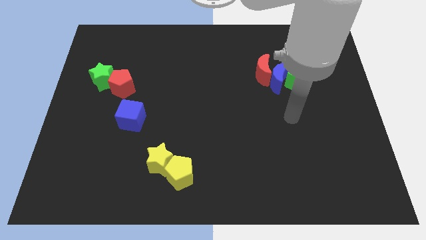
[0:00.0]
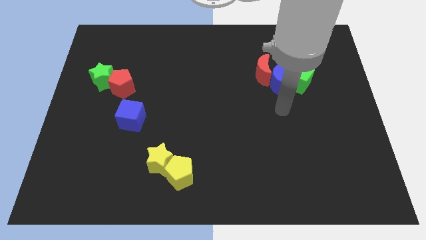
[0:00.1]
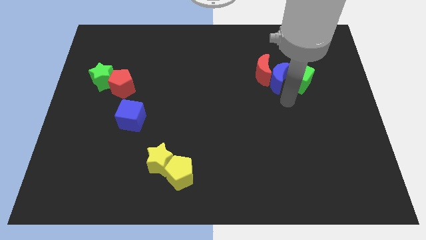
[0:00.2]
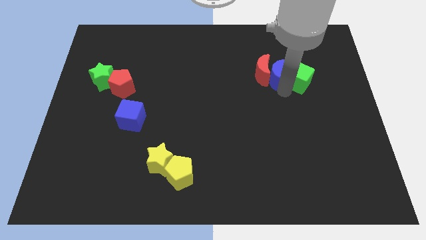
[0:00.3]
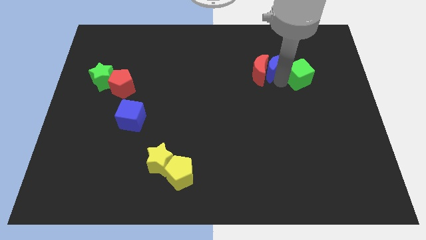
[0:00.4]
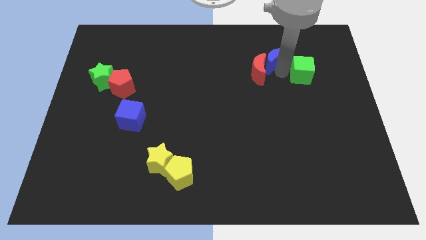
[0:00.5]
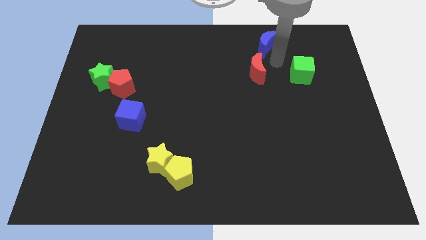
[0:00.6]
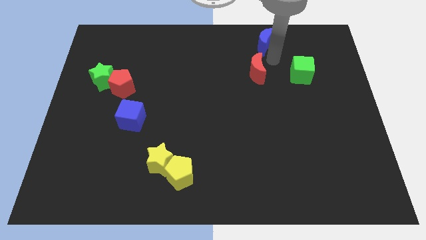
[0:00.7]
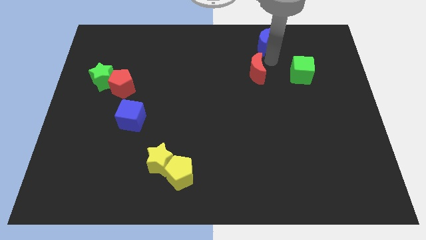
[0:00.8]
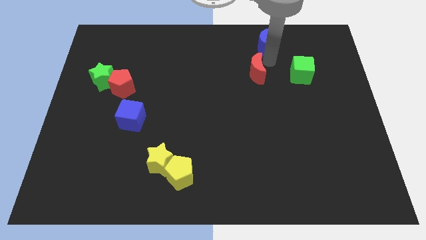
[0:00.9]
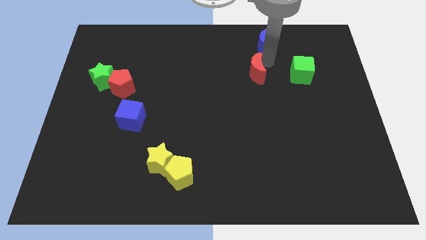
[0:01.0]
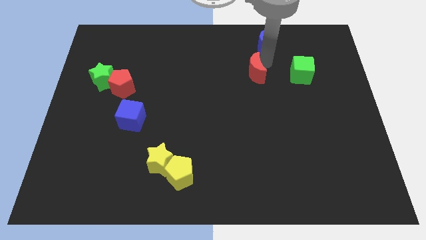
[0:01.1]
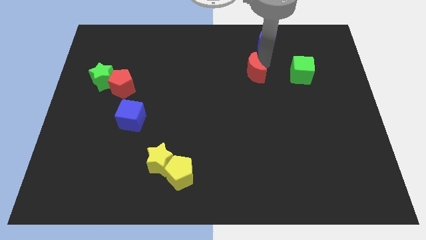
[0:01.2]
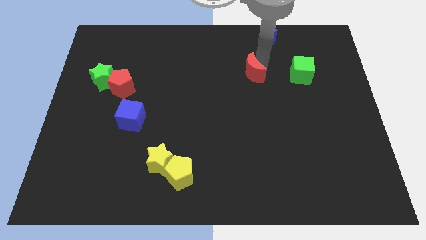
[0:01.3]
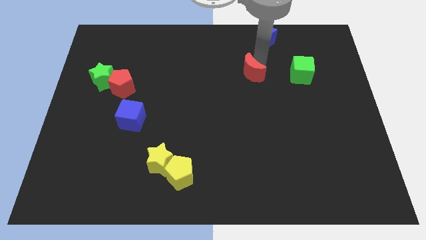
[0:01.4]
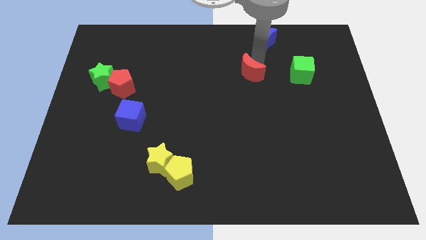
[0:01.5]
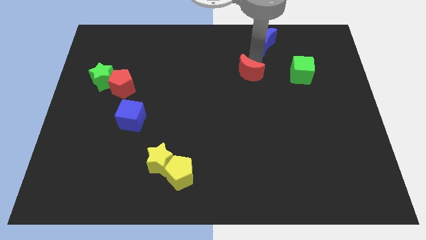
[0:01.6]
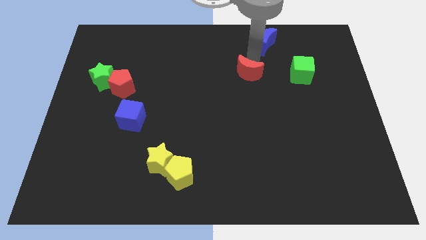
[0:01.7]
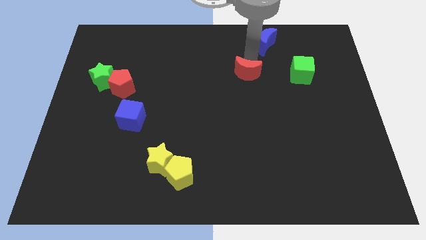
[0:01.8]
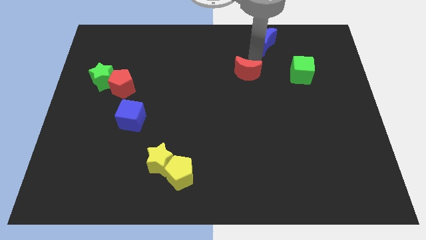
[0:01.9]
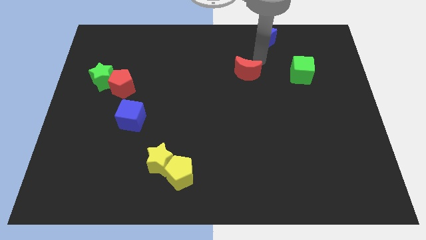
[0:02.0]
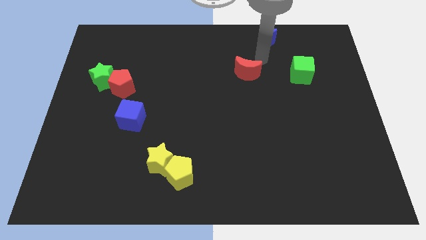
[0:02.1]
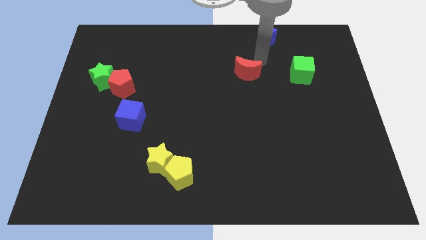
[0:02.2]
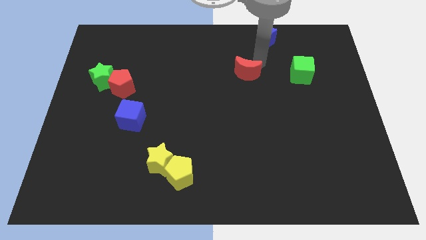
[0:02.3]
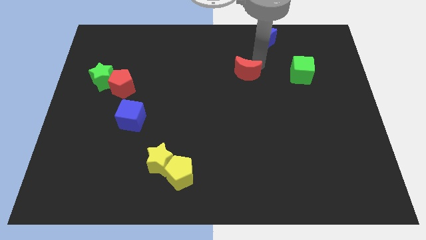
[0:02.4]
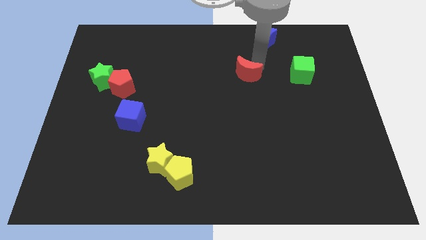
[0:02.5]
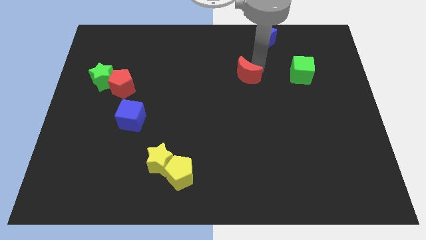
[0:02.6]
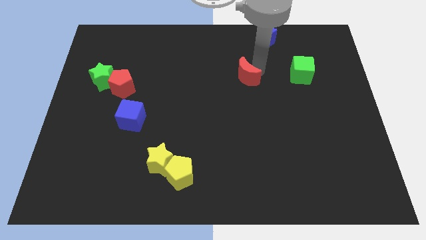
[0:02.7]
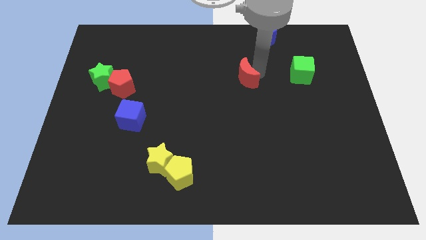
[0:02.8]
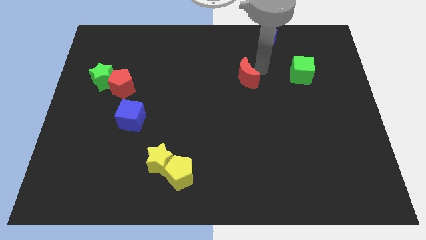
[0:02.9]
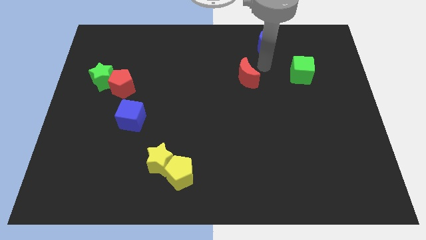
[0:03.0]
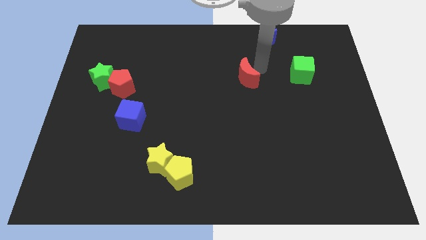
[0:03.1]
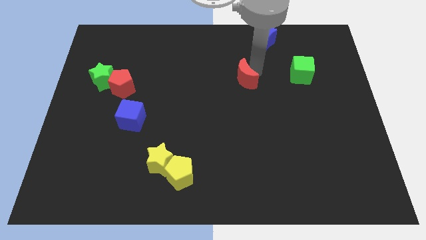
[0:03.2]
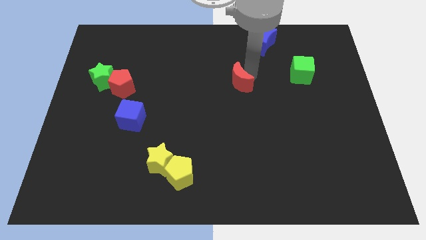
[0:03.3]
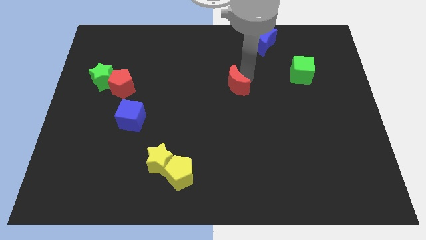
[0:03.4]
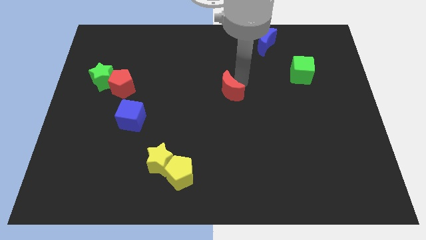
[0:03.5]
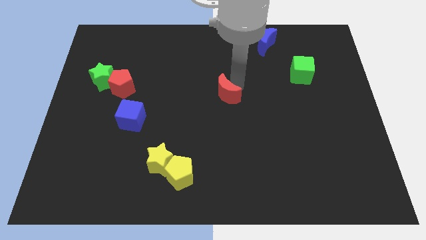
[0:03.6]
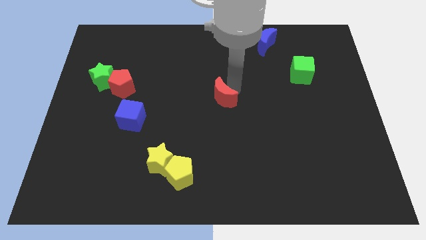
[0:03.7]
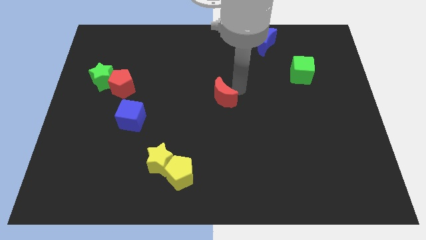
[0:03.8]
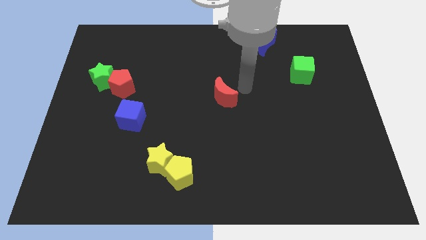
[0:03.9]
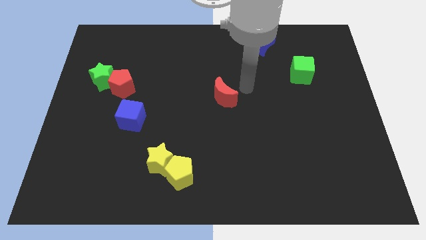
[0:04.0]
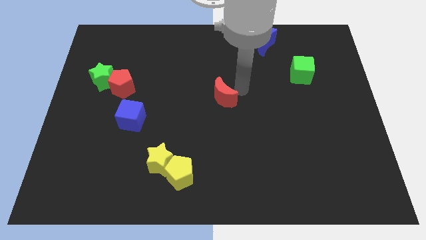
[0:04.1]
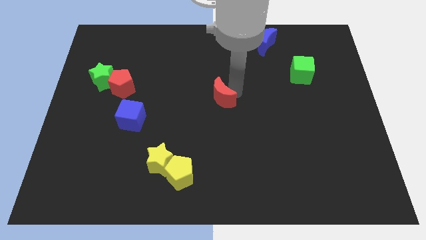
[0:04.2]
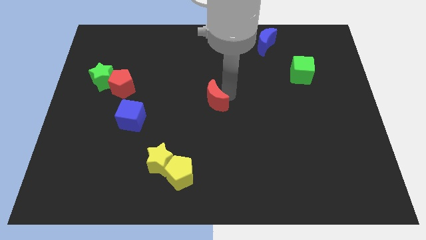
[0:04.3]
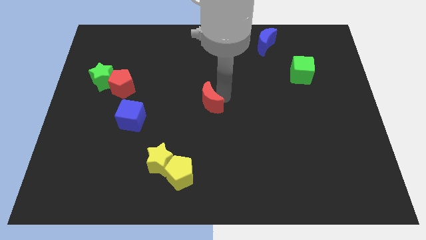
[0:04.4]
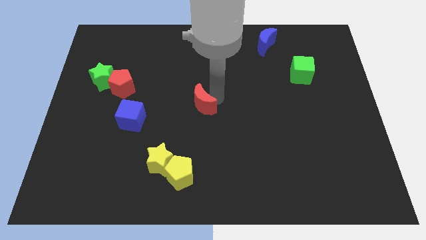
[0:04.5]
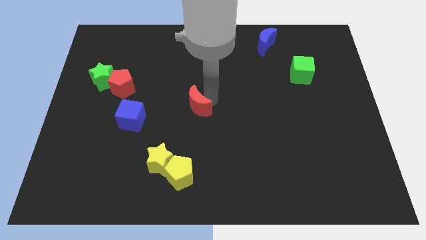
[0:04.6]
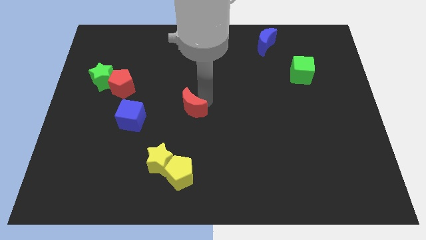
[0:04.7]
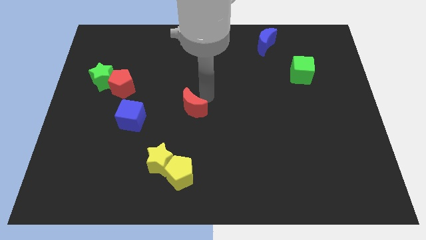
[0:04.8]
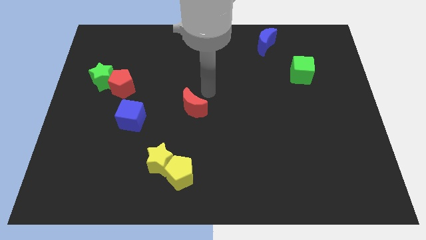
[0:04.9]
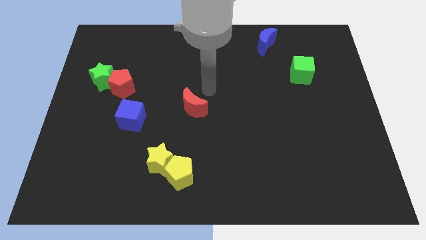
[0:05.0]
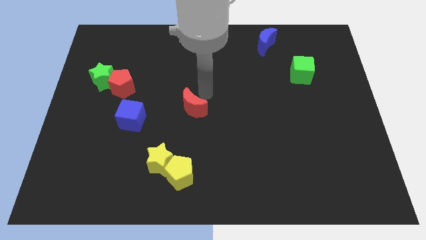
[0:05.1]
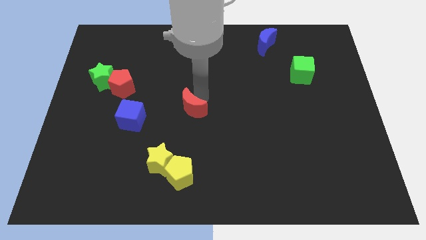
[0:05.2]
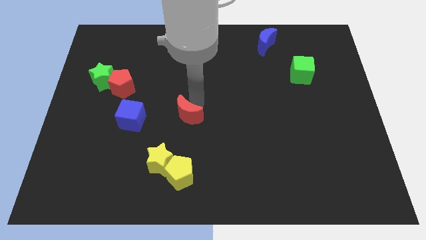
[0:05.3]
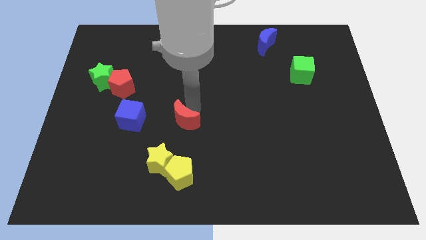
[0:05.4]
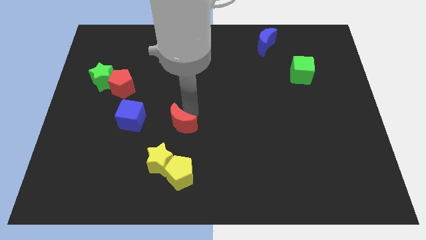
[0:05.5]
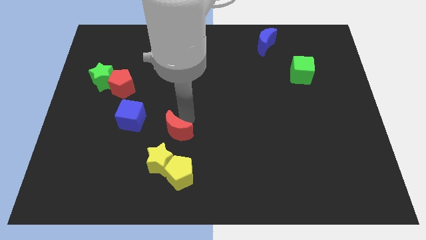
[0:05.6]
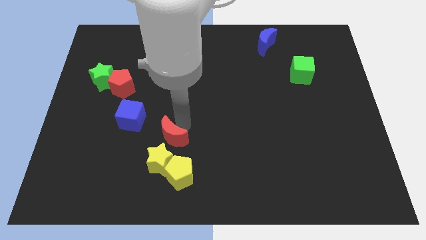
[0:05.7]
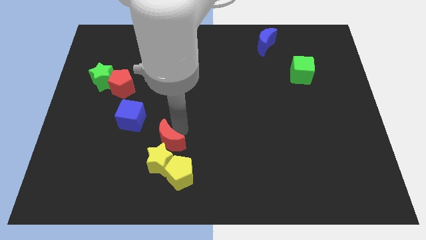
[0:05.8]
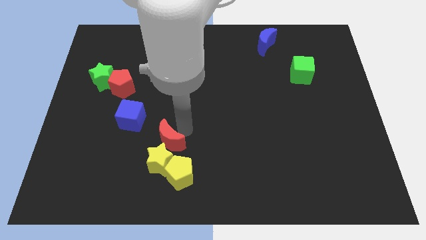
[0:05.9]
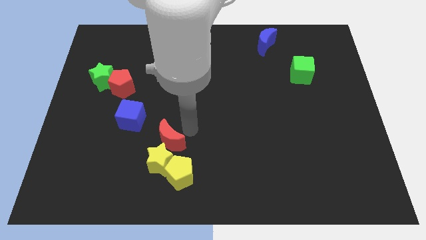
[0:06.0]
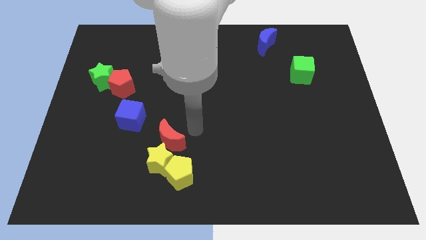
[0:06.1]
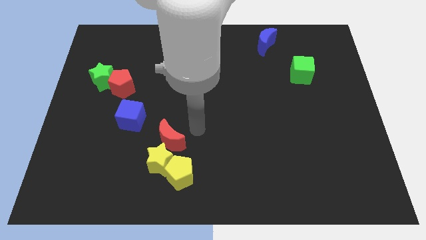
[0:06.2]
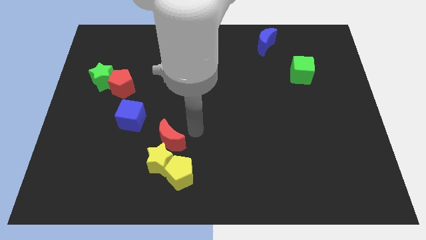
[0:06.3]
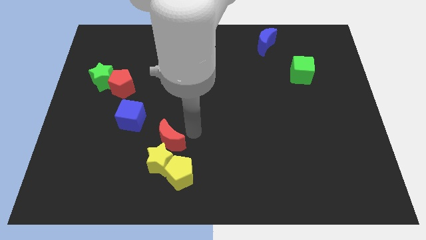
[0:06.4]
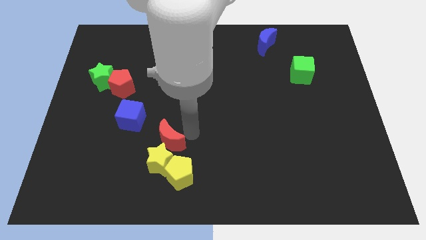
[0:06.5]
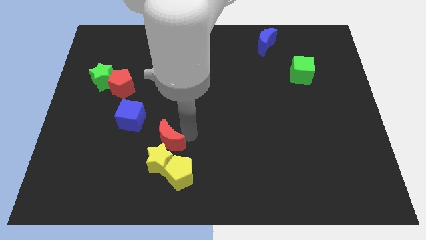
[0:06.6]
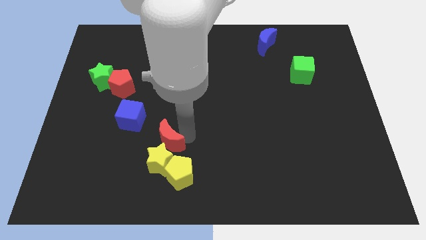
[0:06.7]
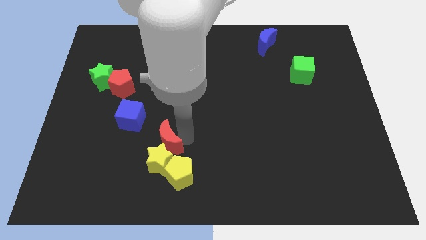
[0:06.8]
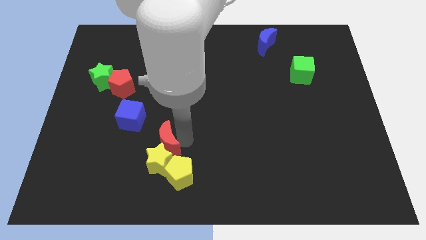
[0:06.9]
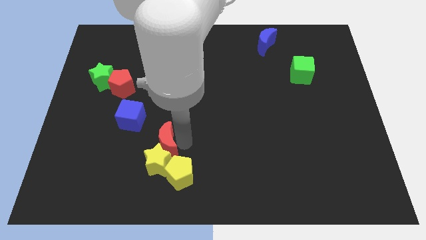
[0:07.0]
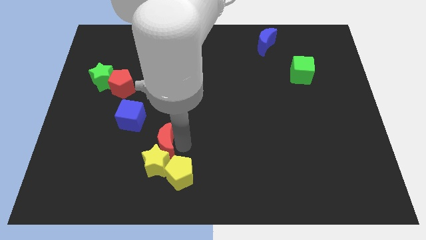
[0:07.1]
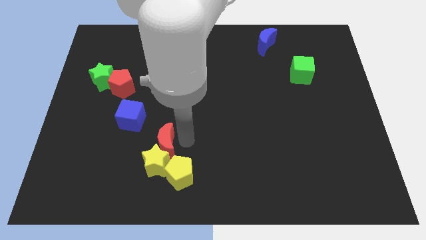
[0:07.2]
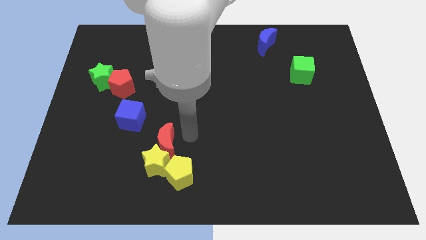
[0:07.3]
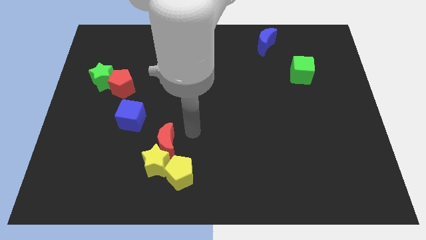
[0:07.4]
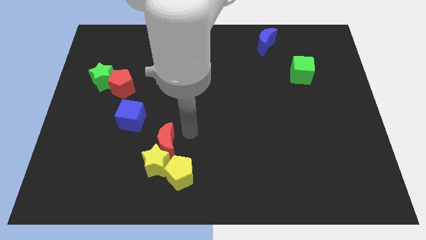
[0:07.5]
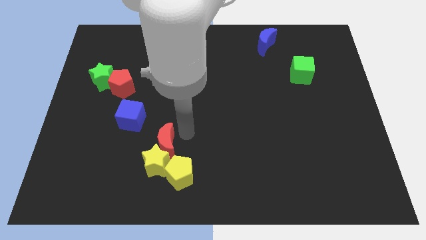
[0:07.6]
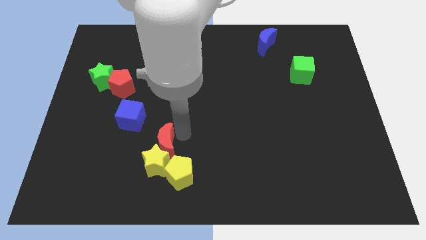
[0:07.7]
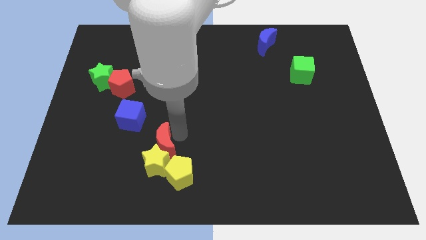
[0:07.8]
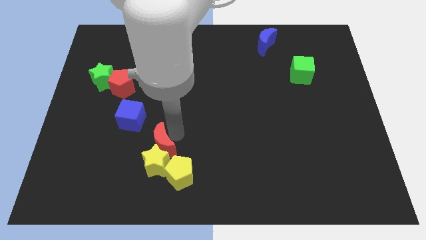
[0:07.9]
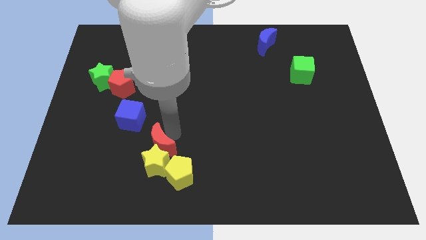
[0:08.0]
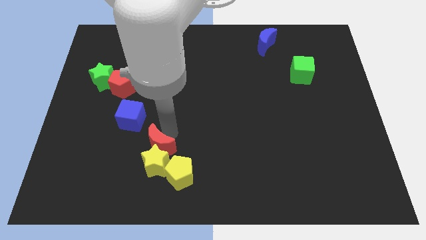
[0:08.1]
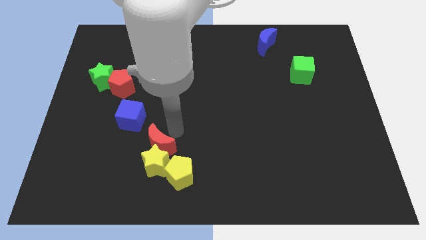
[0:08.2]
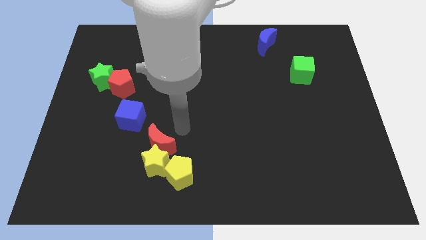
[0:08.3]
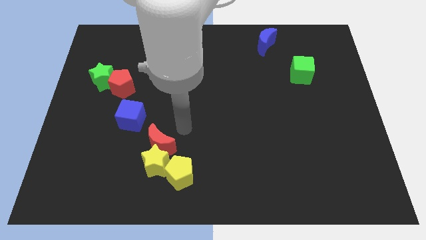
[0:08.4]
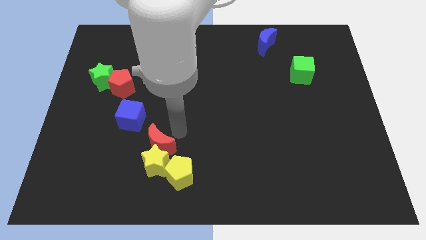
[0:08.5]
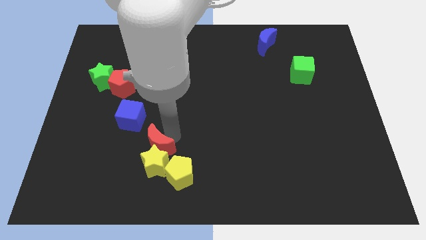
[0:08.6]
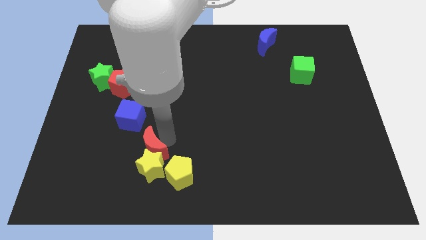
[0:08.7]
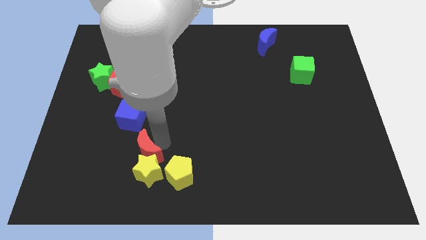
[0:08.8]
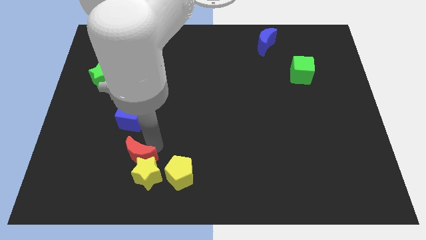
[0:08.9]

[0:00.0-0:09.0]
slide the red moon to the left side of the yellow pentagon
